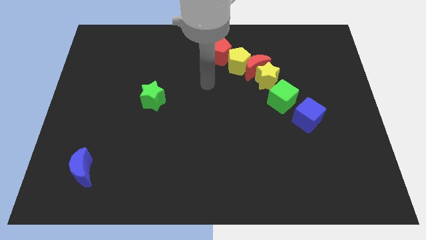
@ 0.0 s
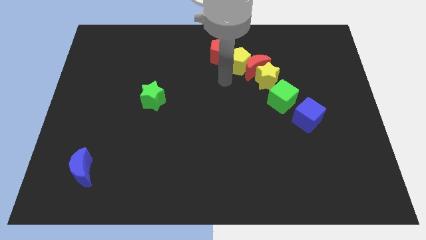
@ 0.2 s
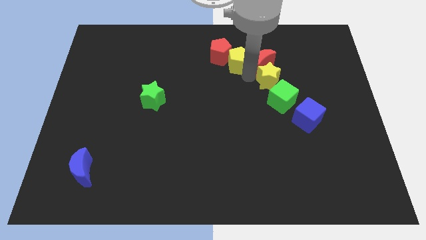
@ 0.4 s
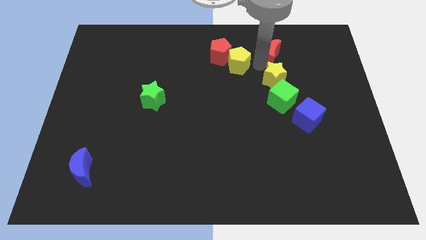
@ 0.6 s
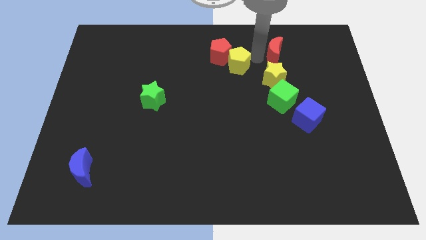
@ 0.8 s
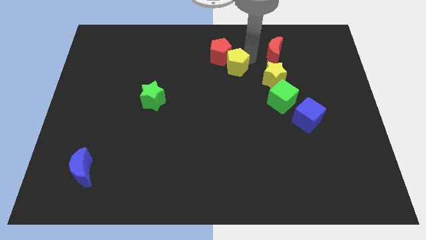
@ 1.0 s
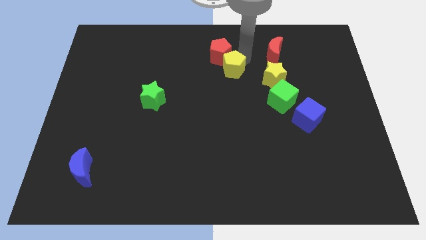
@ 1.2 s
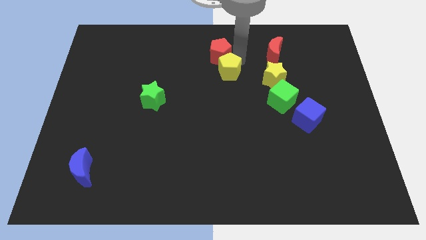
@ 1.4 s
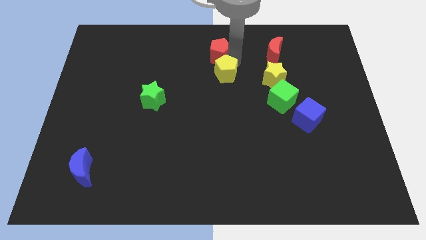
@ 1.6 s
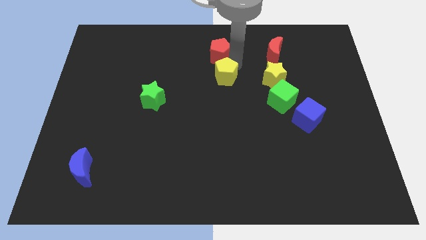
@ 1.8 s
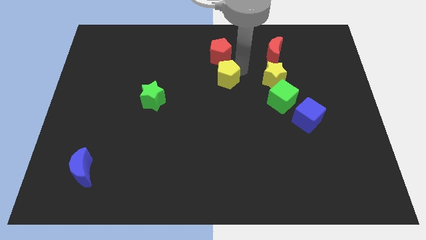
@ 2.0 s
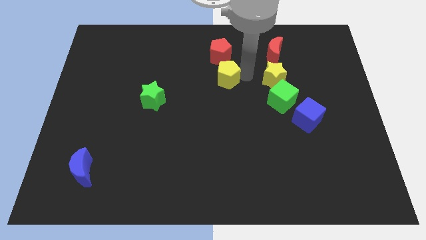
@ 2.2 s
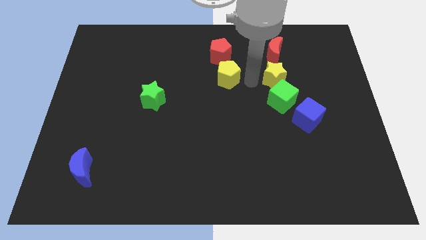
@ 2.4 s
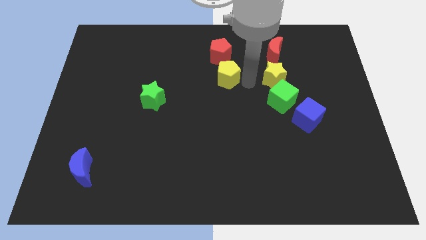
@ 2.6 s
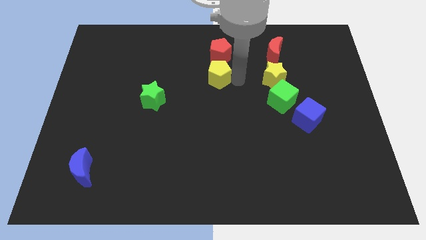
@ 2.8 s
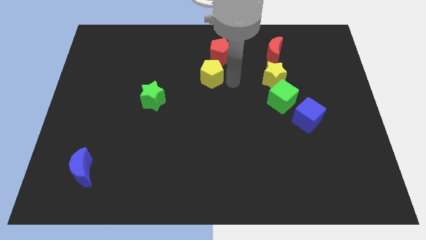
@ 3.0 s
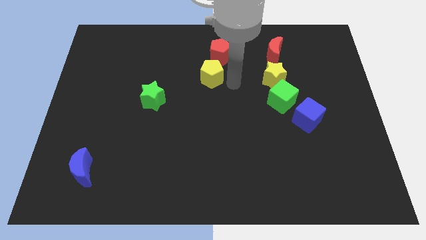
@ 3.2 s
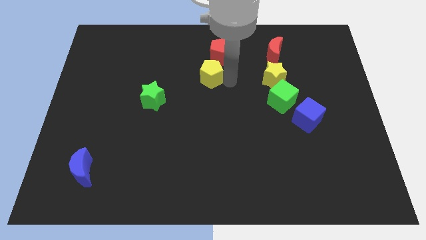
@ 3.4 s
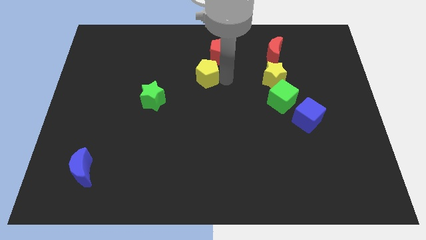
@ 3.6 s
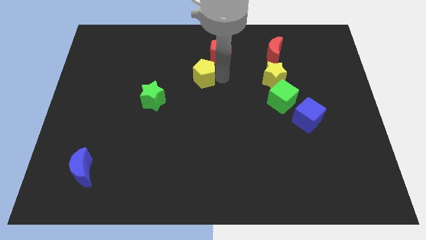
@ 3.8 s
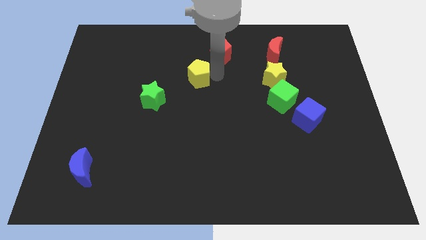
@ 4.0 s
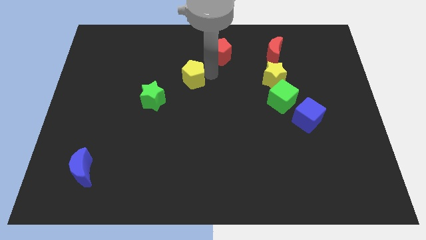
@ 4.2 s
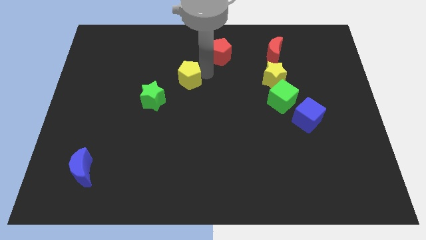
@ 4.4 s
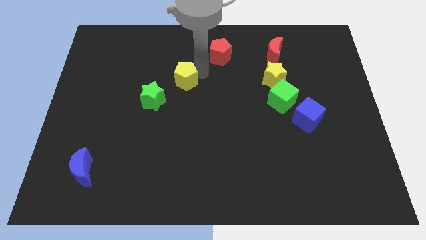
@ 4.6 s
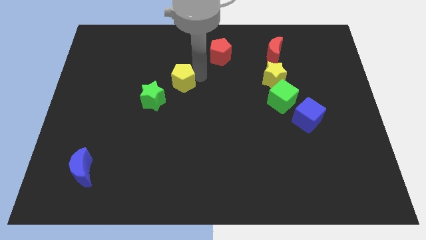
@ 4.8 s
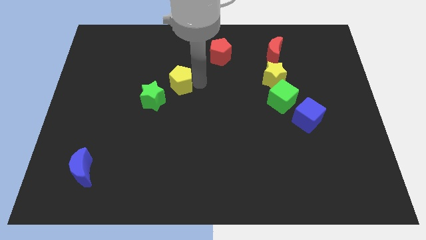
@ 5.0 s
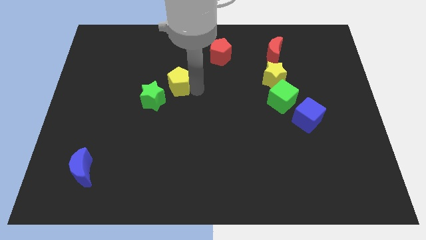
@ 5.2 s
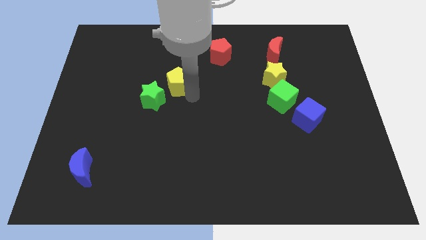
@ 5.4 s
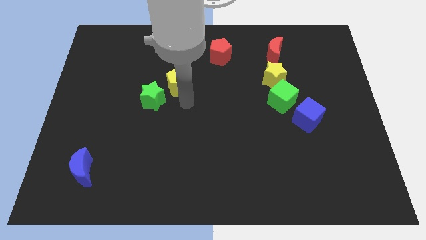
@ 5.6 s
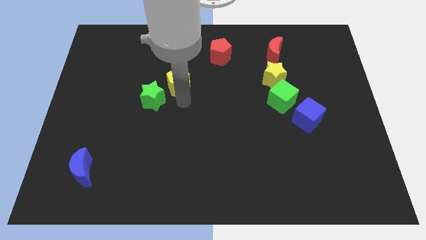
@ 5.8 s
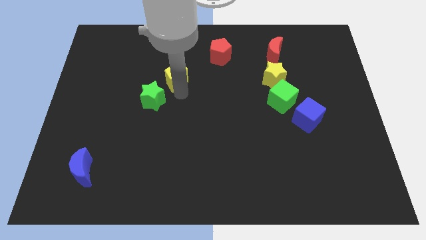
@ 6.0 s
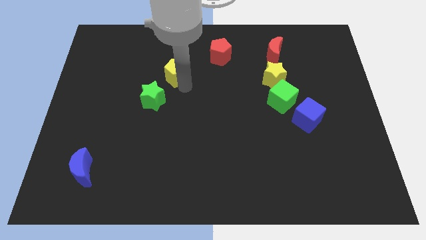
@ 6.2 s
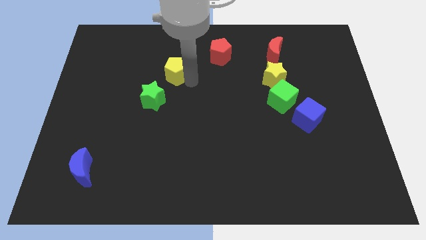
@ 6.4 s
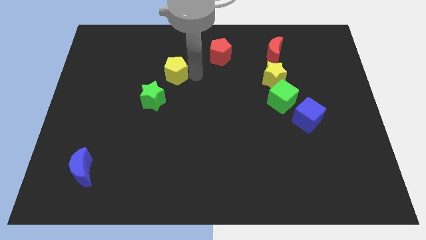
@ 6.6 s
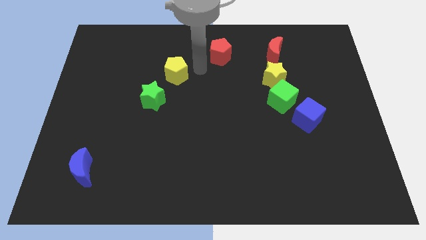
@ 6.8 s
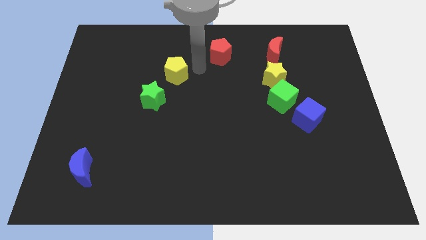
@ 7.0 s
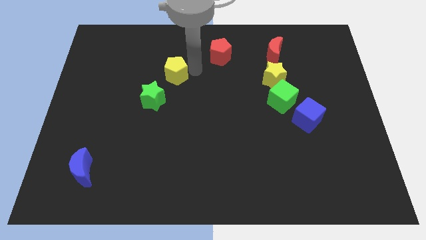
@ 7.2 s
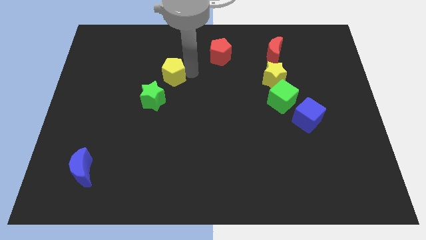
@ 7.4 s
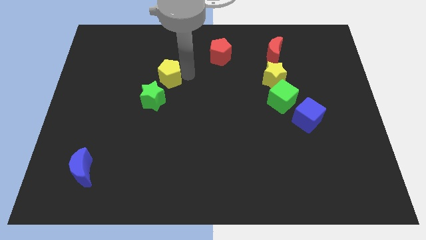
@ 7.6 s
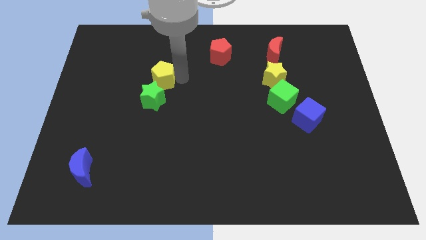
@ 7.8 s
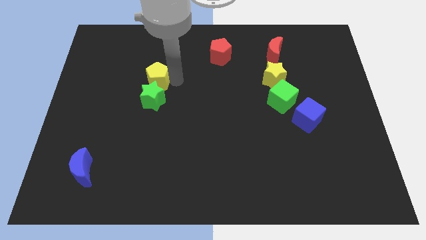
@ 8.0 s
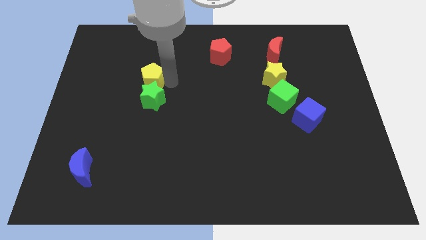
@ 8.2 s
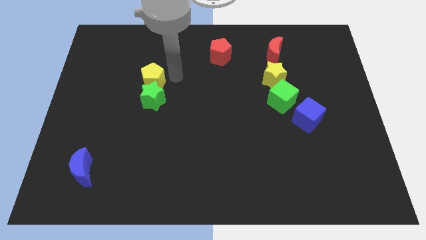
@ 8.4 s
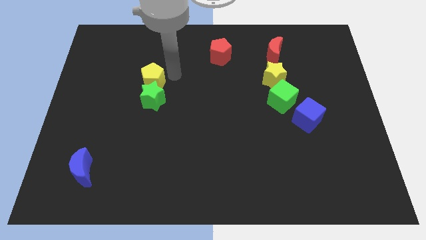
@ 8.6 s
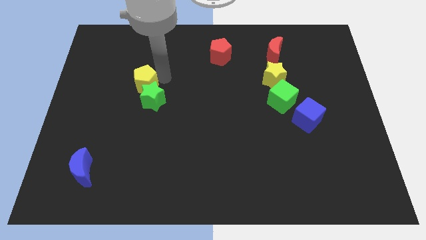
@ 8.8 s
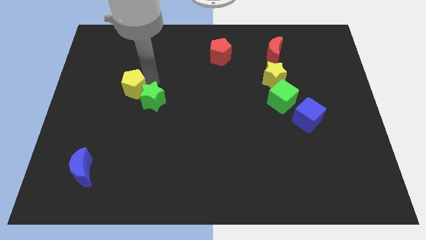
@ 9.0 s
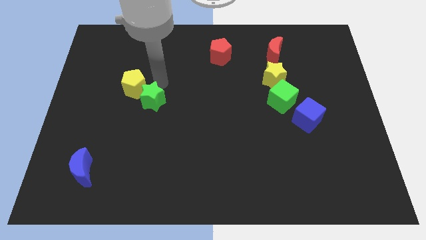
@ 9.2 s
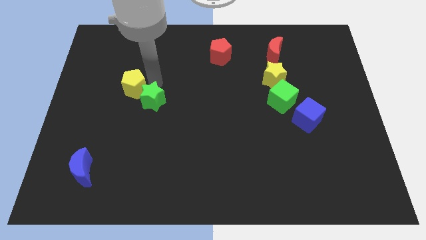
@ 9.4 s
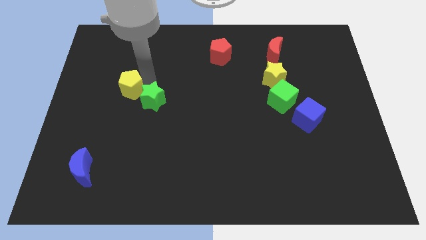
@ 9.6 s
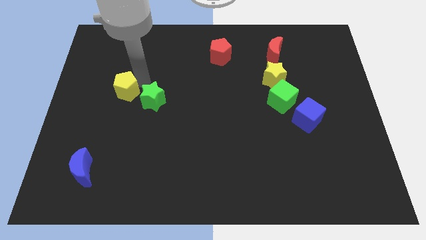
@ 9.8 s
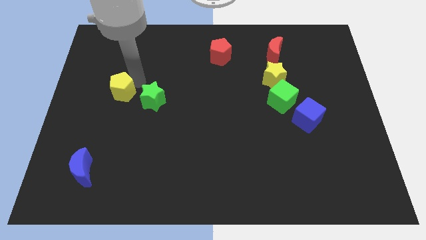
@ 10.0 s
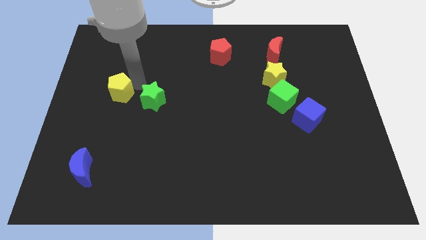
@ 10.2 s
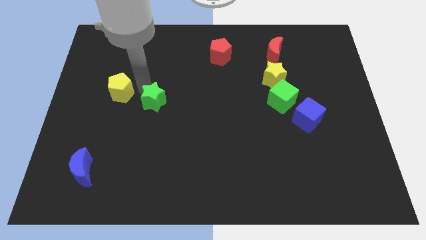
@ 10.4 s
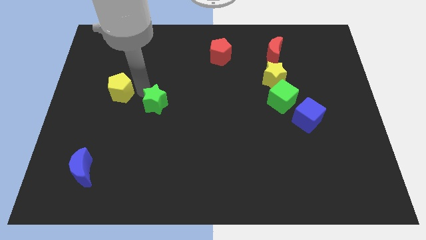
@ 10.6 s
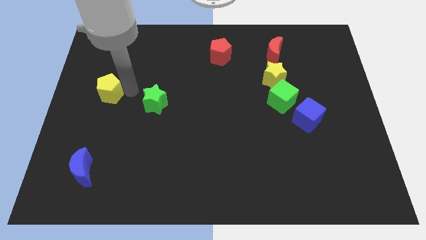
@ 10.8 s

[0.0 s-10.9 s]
push the yellow pentagon to the left side

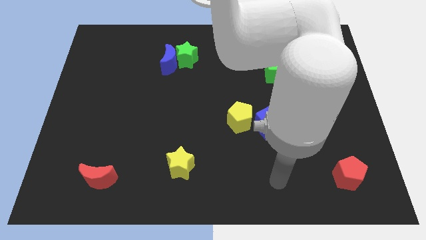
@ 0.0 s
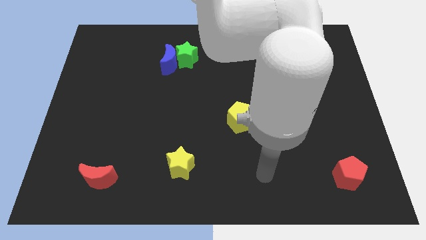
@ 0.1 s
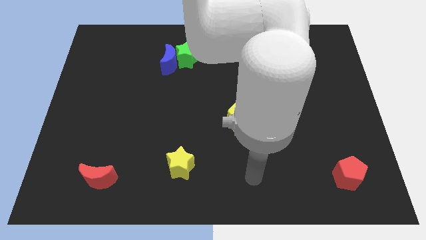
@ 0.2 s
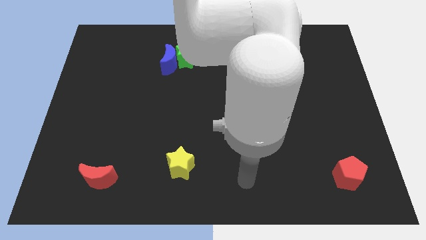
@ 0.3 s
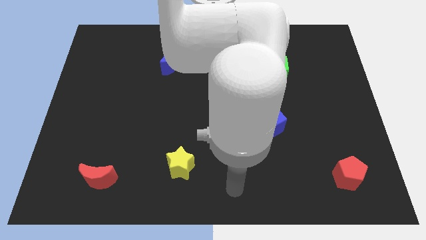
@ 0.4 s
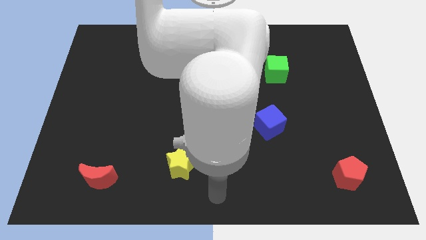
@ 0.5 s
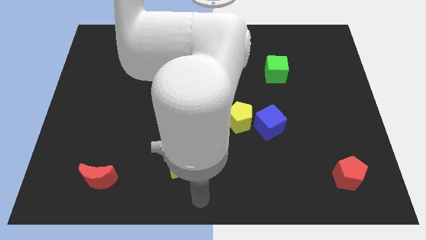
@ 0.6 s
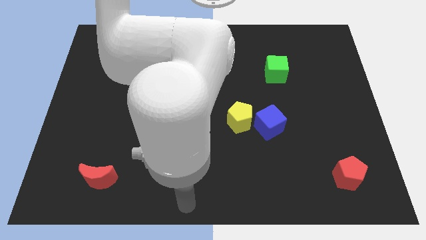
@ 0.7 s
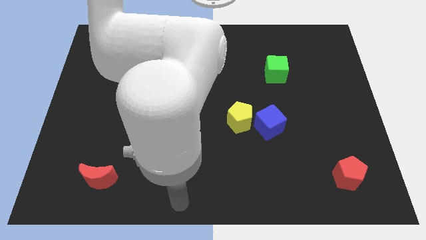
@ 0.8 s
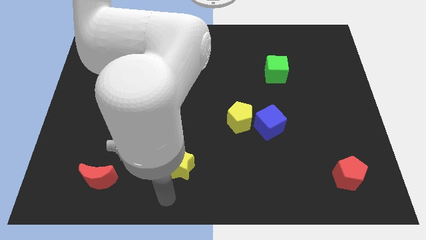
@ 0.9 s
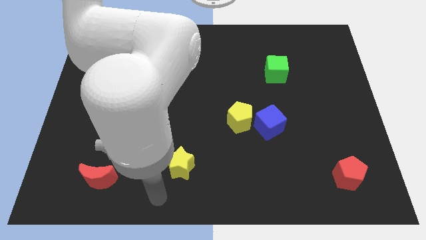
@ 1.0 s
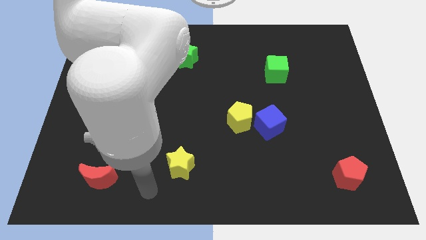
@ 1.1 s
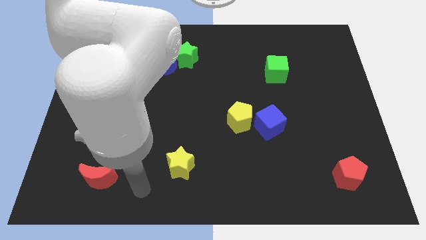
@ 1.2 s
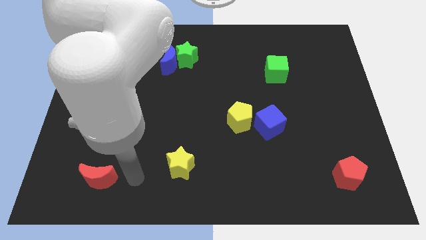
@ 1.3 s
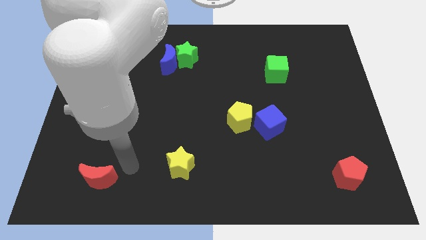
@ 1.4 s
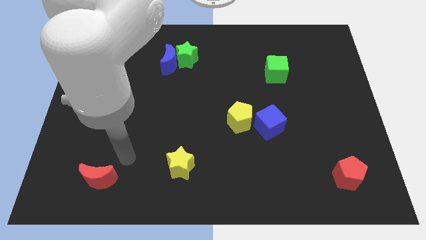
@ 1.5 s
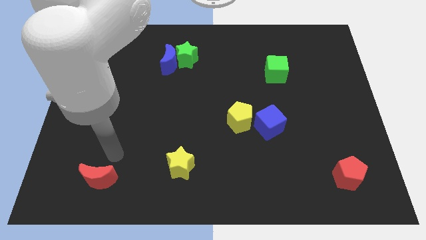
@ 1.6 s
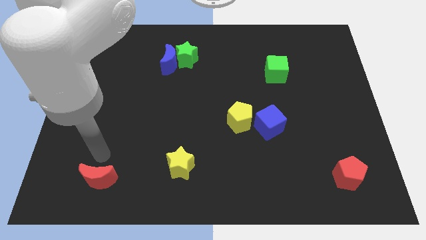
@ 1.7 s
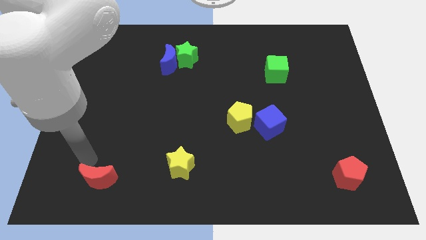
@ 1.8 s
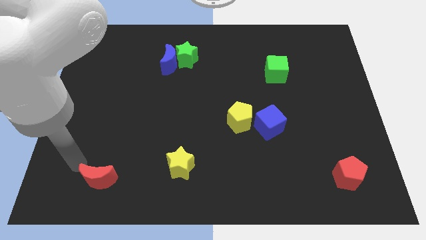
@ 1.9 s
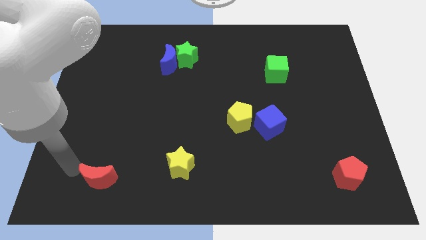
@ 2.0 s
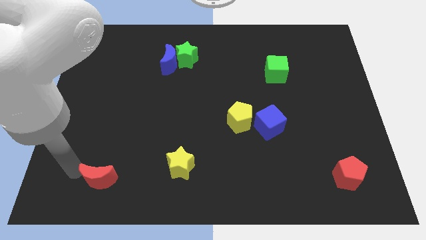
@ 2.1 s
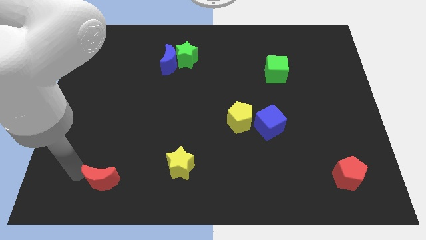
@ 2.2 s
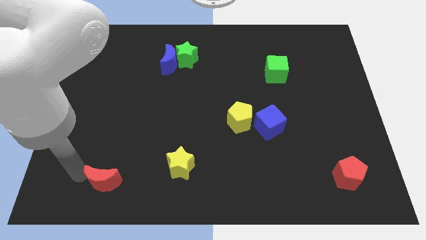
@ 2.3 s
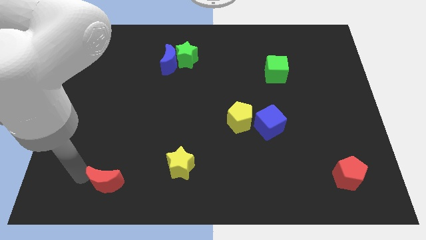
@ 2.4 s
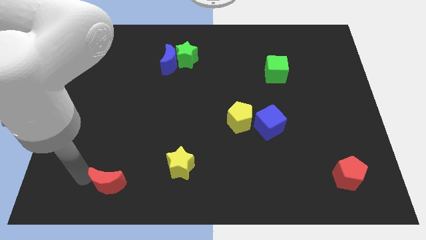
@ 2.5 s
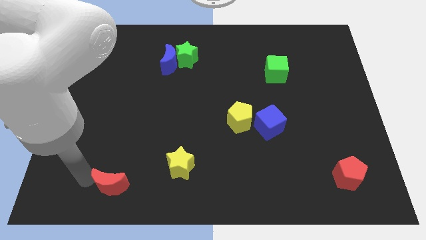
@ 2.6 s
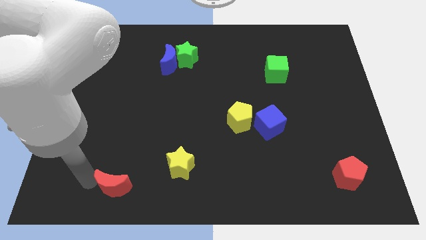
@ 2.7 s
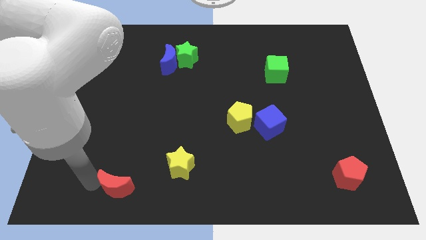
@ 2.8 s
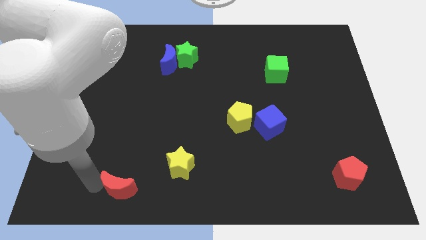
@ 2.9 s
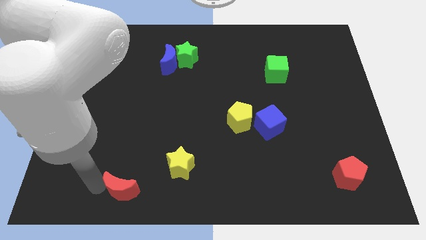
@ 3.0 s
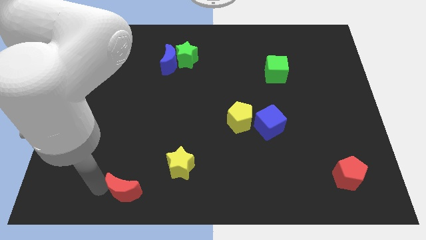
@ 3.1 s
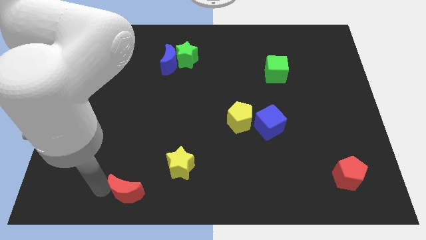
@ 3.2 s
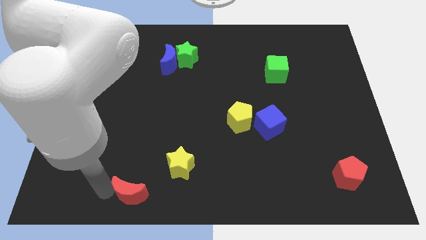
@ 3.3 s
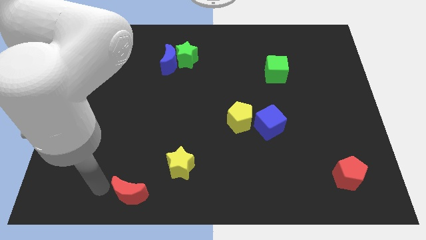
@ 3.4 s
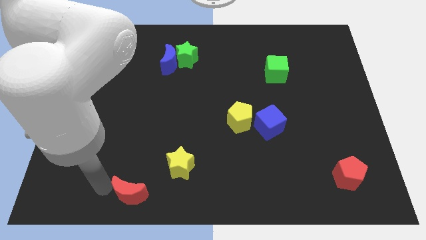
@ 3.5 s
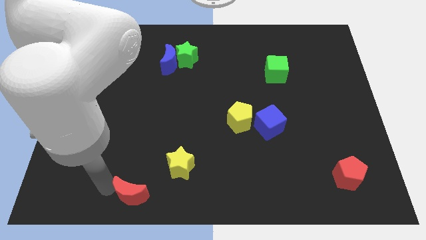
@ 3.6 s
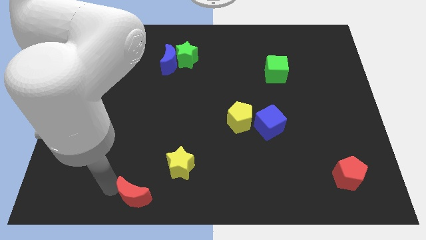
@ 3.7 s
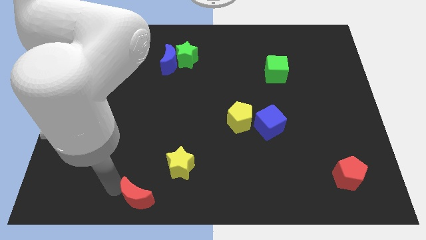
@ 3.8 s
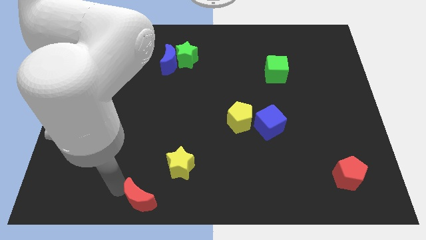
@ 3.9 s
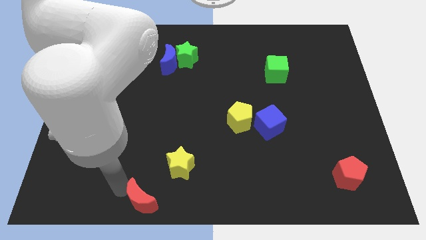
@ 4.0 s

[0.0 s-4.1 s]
move the red moon to the bottom side
